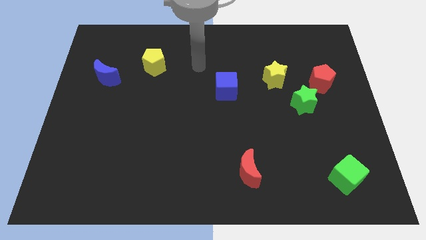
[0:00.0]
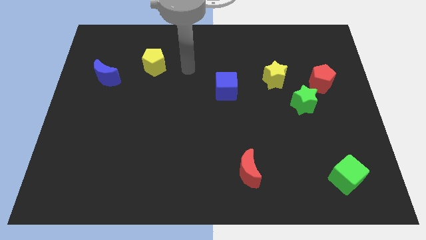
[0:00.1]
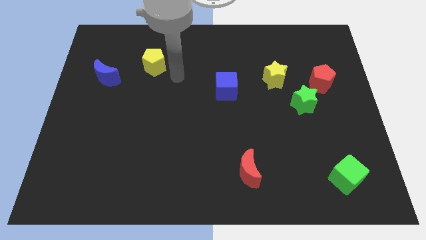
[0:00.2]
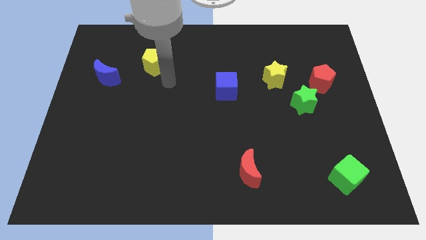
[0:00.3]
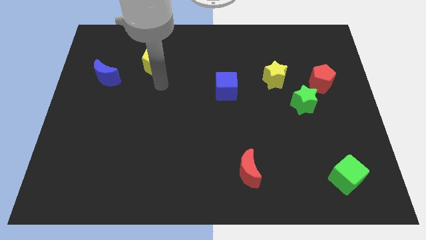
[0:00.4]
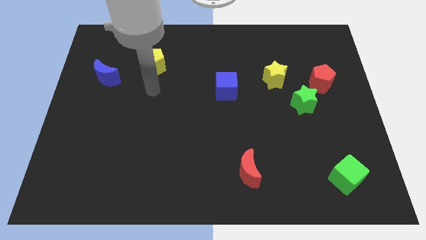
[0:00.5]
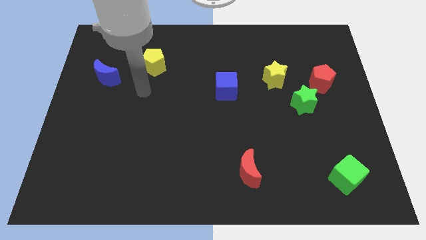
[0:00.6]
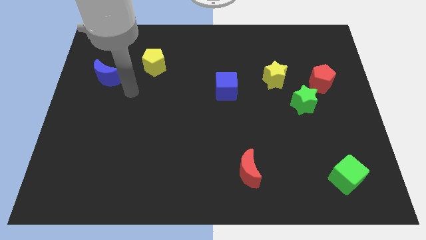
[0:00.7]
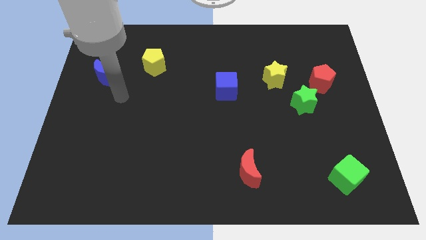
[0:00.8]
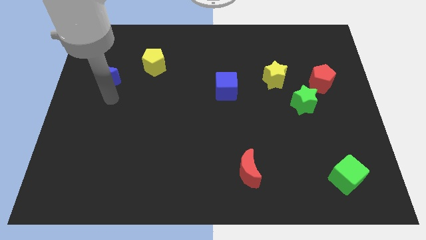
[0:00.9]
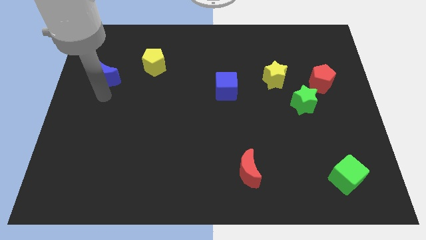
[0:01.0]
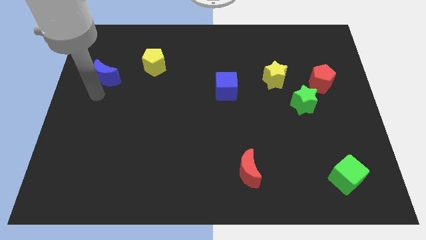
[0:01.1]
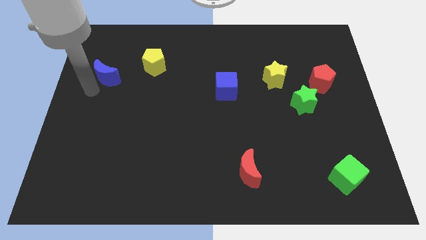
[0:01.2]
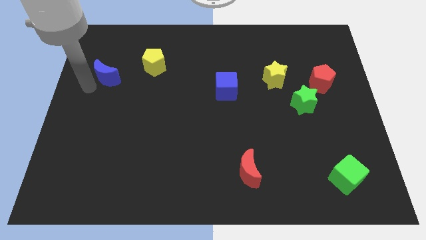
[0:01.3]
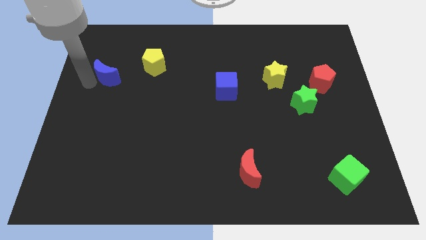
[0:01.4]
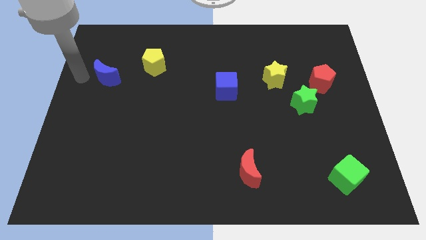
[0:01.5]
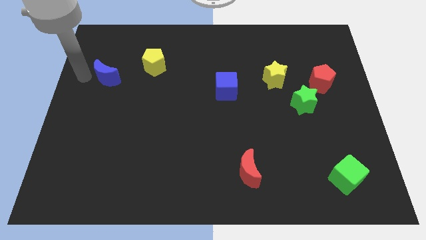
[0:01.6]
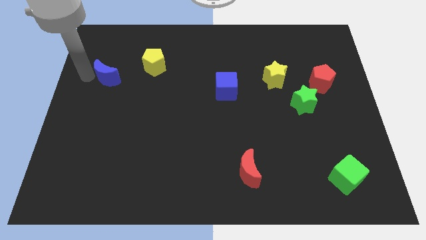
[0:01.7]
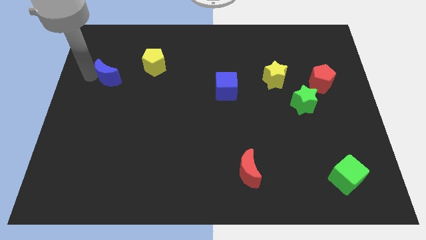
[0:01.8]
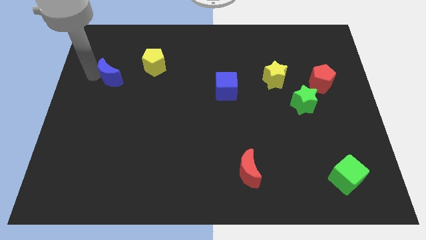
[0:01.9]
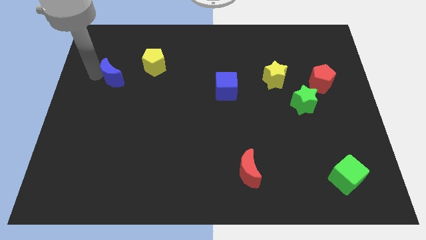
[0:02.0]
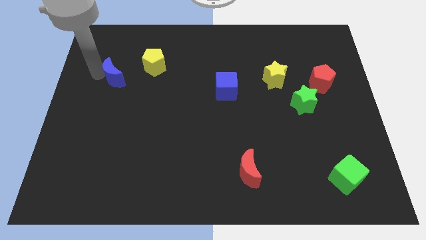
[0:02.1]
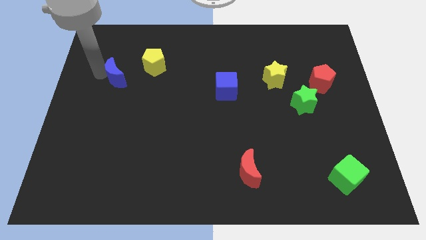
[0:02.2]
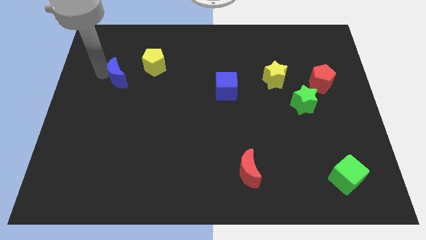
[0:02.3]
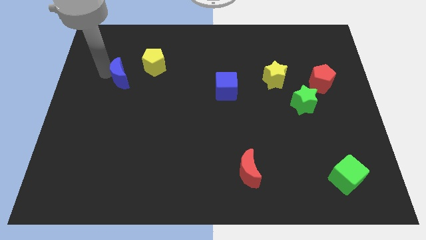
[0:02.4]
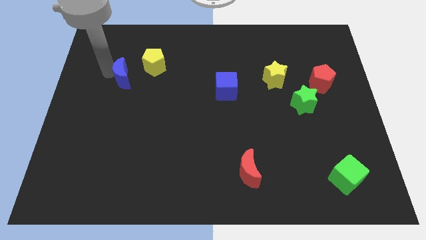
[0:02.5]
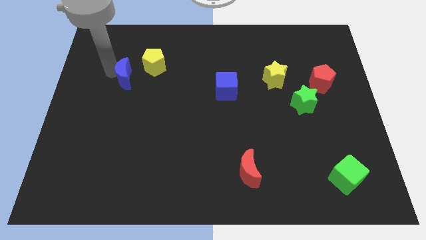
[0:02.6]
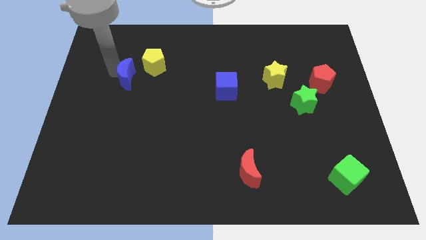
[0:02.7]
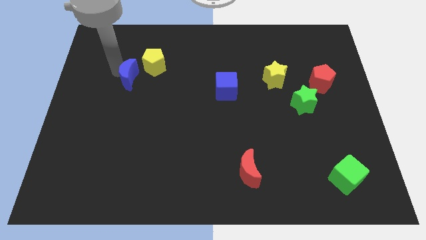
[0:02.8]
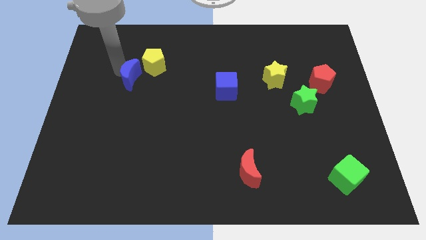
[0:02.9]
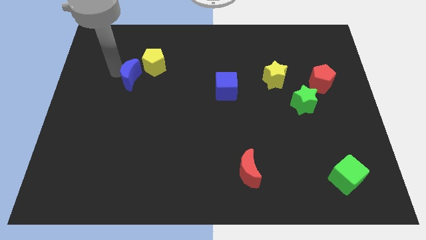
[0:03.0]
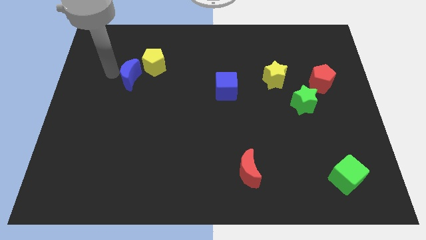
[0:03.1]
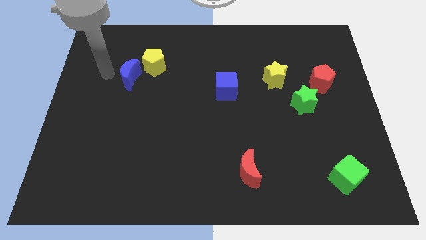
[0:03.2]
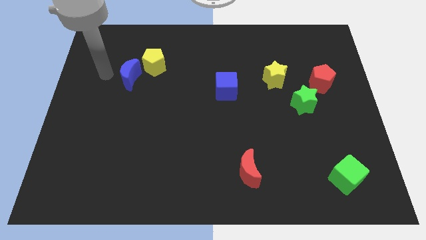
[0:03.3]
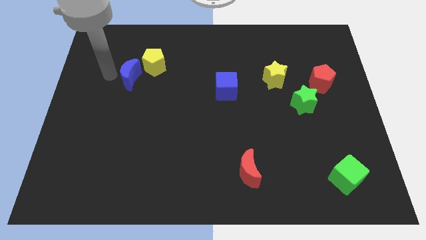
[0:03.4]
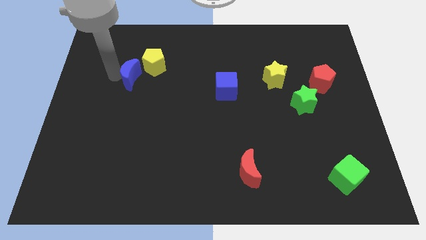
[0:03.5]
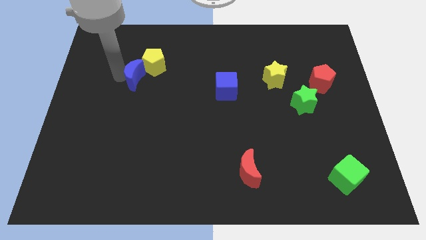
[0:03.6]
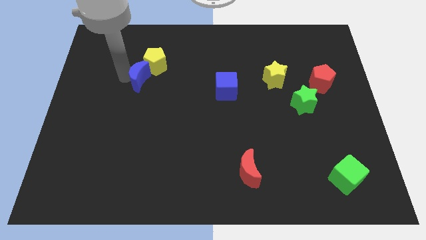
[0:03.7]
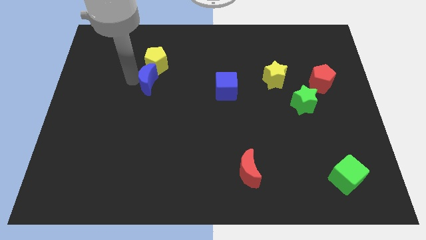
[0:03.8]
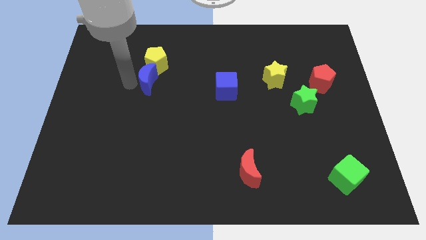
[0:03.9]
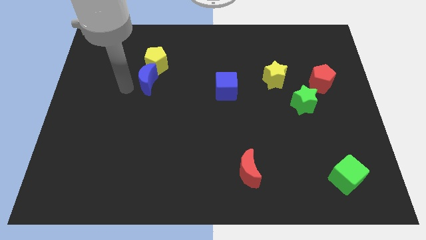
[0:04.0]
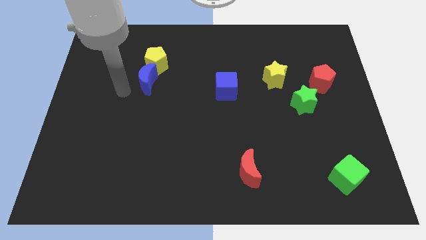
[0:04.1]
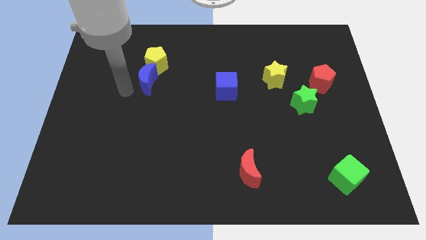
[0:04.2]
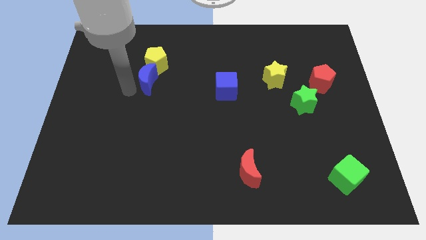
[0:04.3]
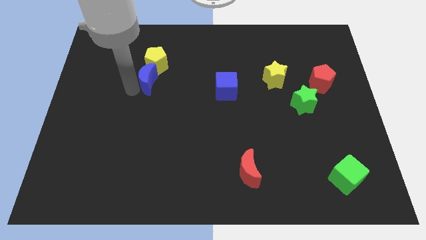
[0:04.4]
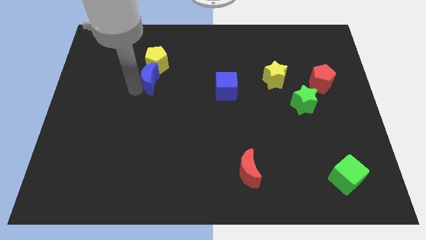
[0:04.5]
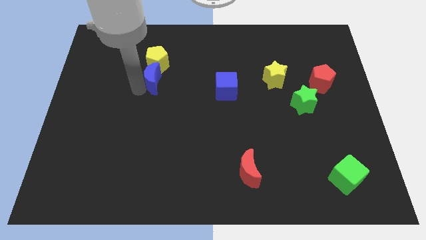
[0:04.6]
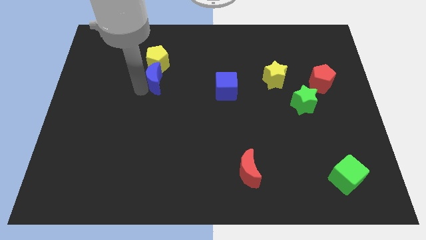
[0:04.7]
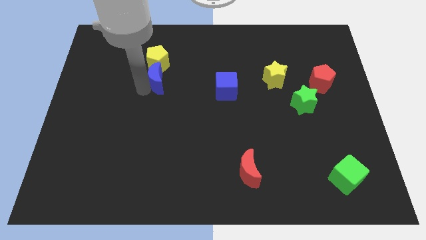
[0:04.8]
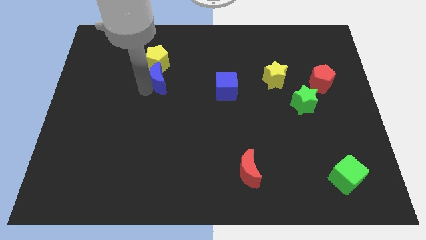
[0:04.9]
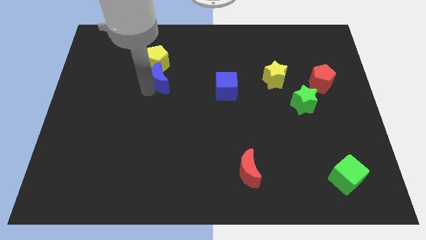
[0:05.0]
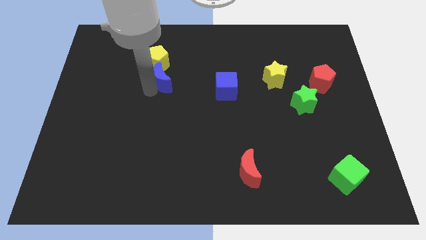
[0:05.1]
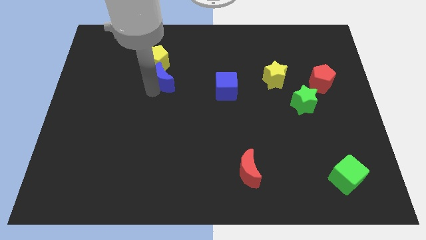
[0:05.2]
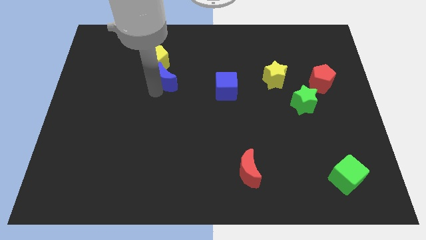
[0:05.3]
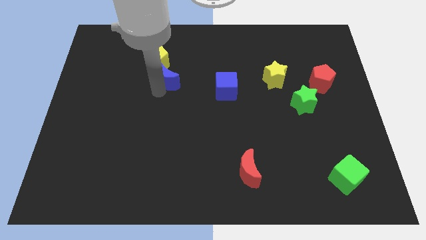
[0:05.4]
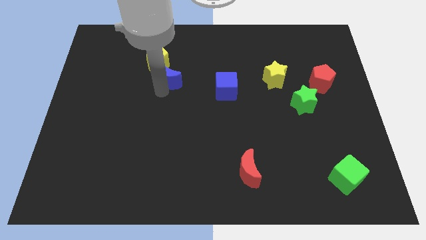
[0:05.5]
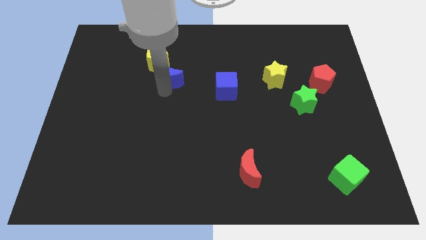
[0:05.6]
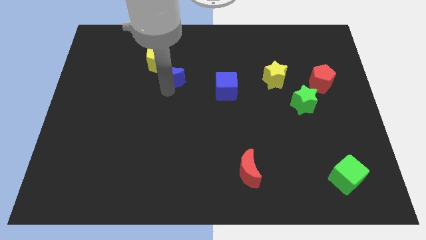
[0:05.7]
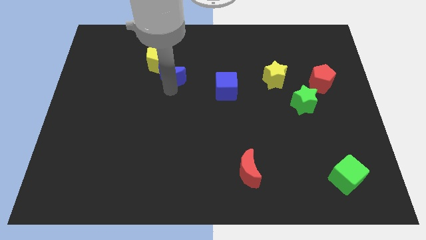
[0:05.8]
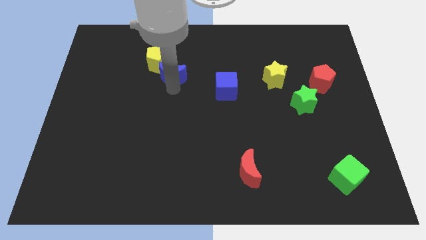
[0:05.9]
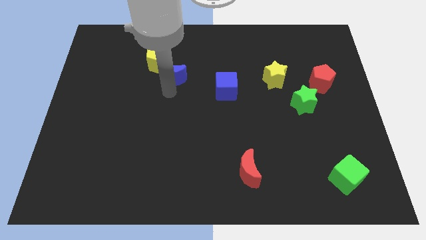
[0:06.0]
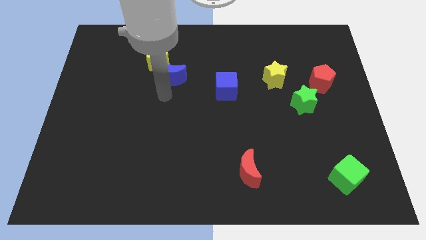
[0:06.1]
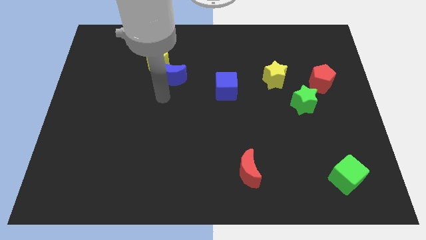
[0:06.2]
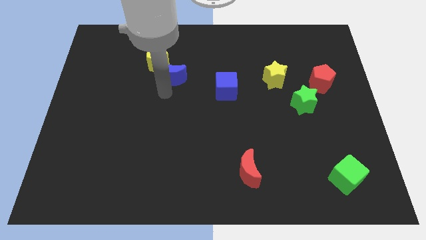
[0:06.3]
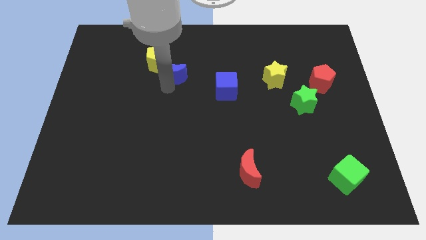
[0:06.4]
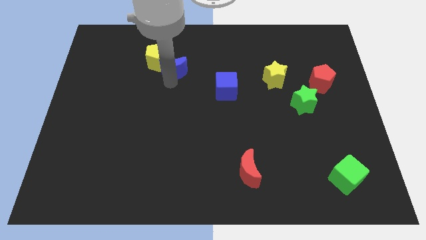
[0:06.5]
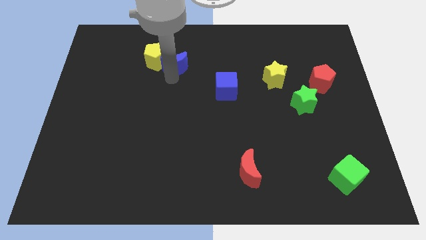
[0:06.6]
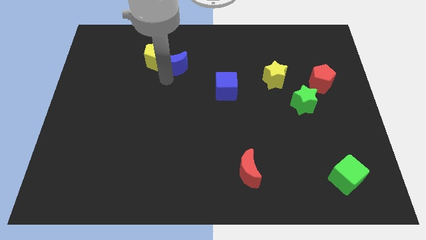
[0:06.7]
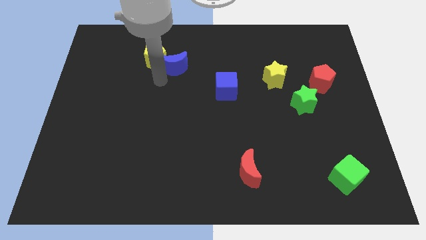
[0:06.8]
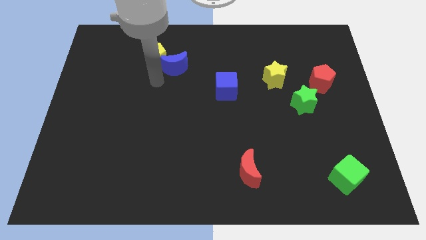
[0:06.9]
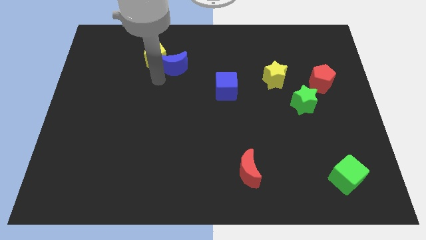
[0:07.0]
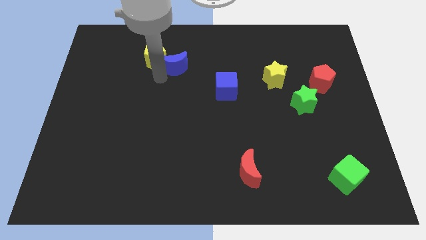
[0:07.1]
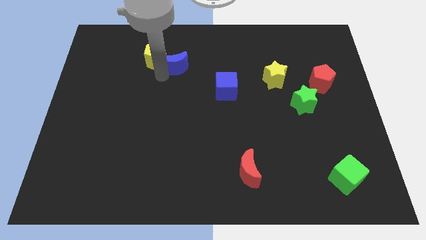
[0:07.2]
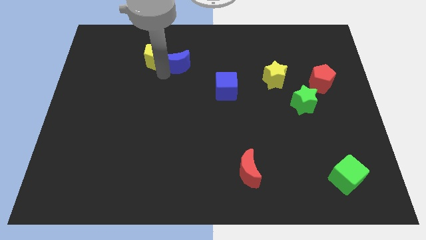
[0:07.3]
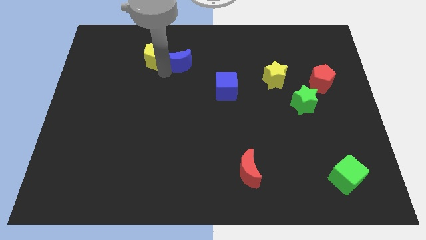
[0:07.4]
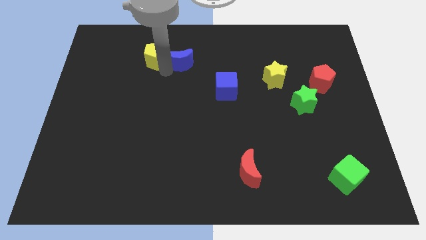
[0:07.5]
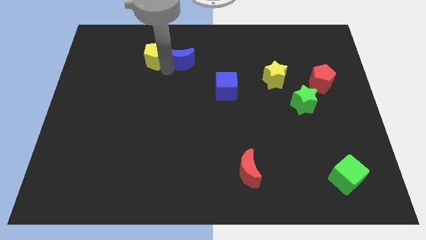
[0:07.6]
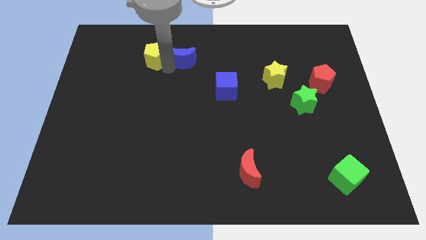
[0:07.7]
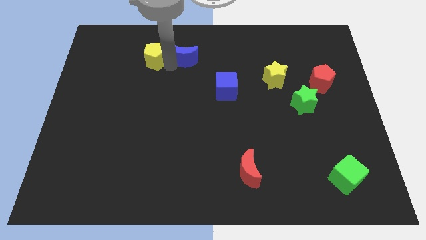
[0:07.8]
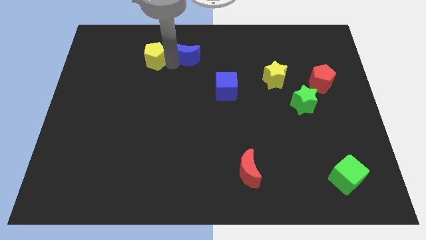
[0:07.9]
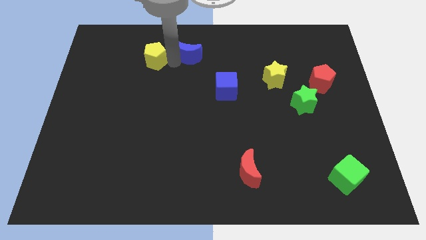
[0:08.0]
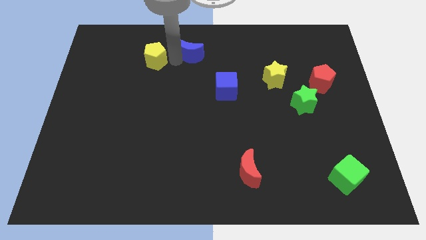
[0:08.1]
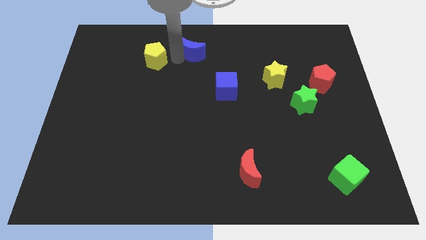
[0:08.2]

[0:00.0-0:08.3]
move the blue moon to the top
